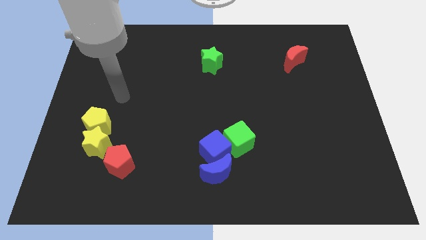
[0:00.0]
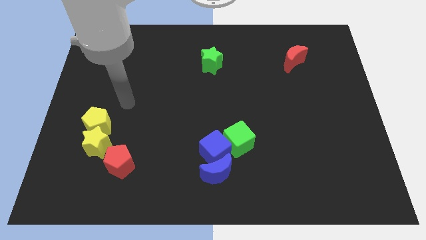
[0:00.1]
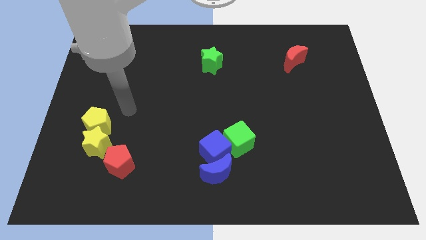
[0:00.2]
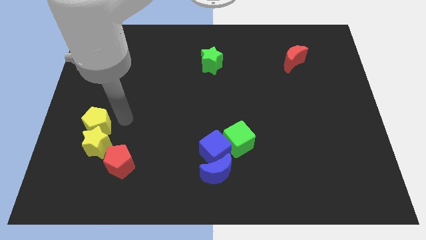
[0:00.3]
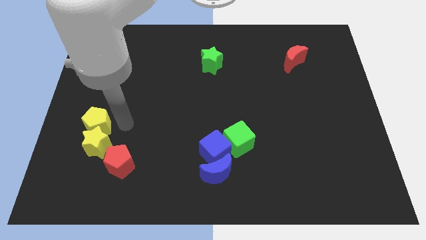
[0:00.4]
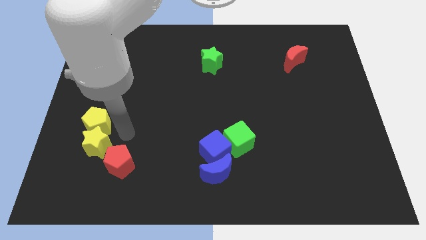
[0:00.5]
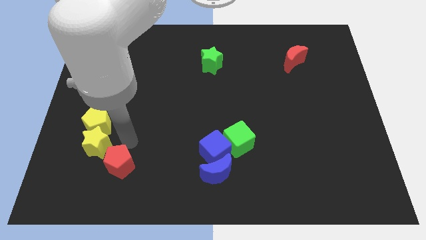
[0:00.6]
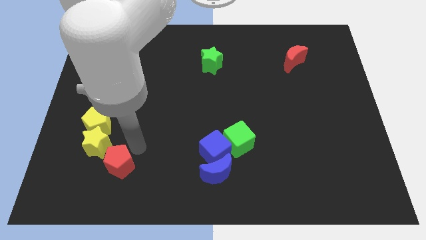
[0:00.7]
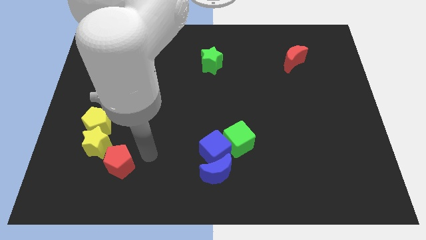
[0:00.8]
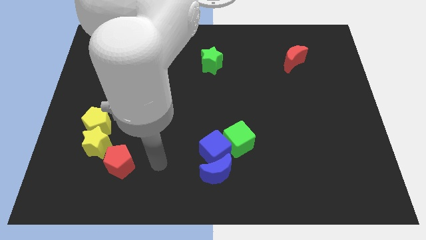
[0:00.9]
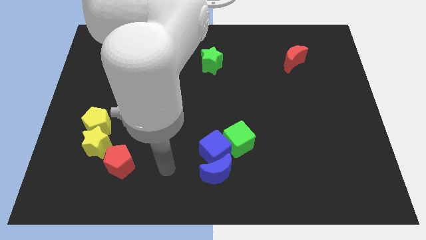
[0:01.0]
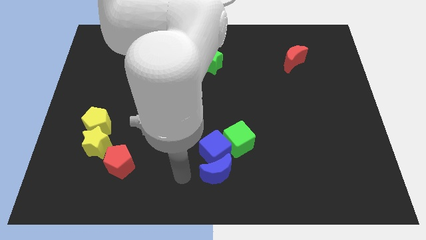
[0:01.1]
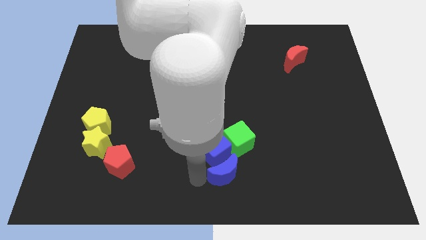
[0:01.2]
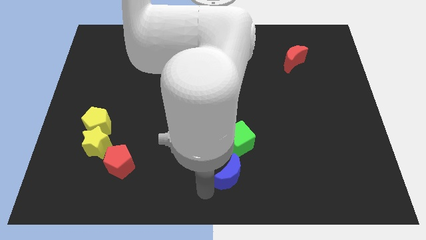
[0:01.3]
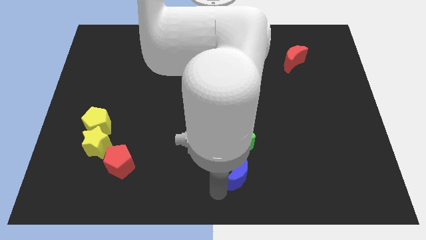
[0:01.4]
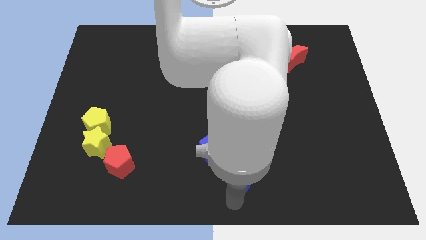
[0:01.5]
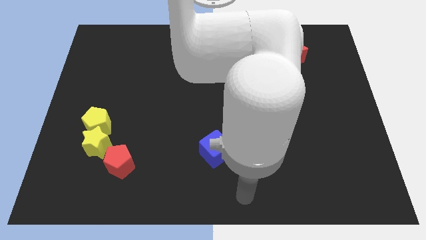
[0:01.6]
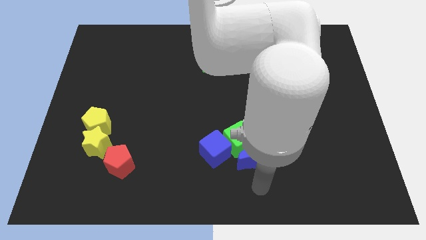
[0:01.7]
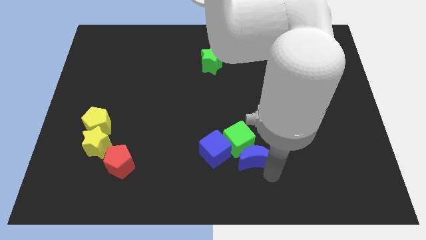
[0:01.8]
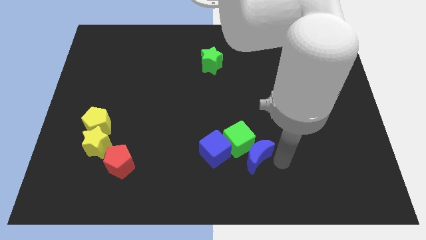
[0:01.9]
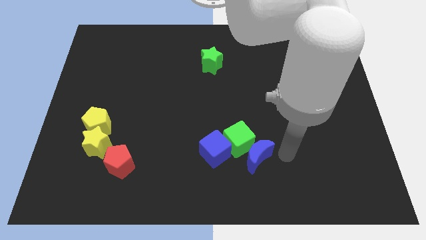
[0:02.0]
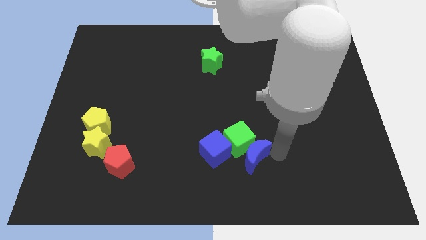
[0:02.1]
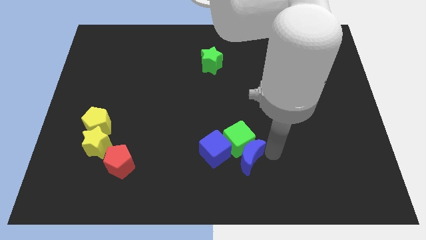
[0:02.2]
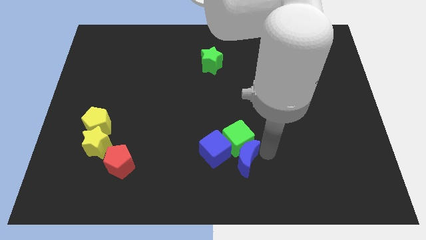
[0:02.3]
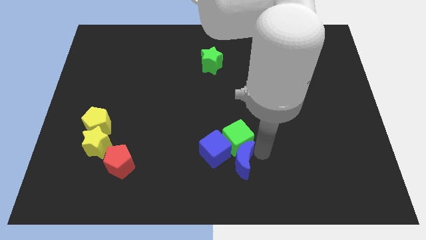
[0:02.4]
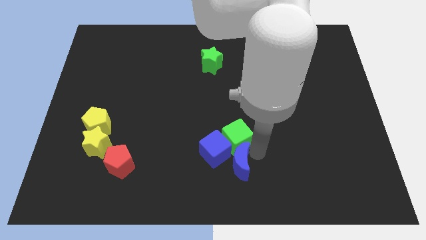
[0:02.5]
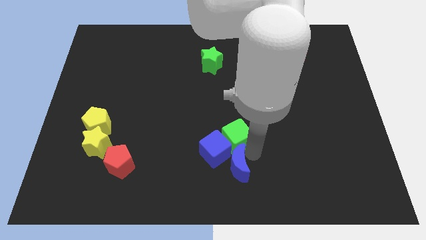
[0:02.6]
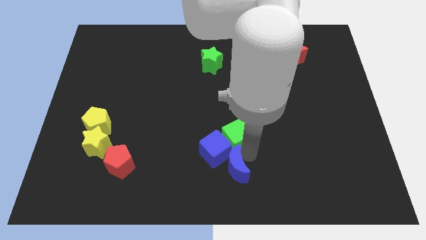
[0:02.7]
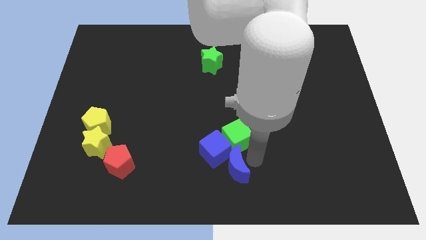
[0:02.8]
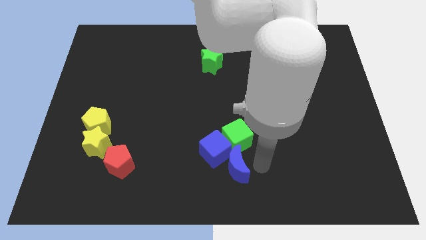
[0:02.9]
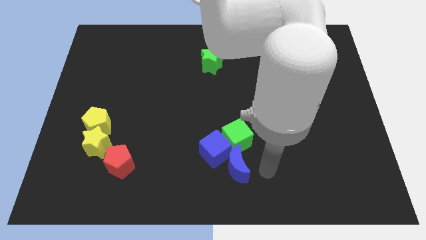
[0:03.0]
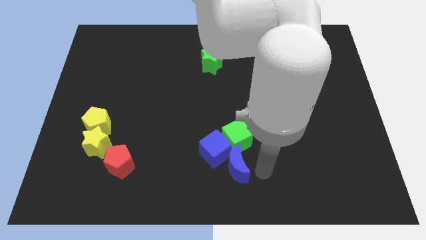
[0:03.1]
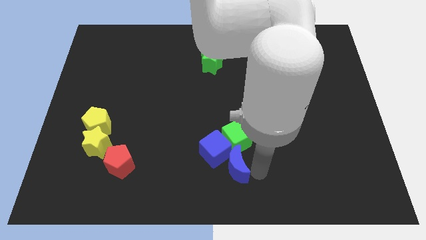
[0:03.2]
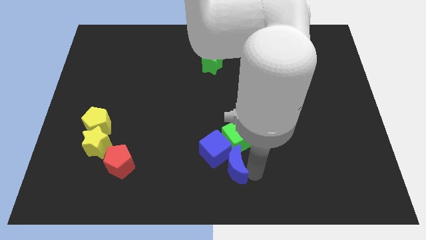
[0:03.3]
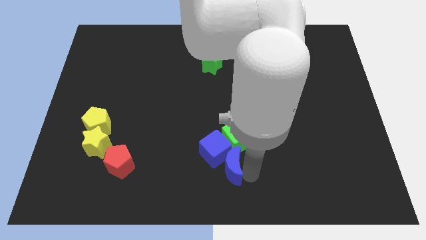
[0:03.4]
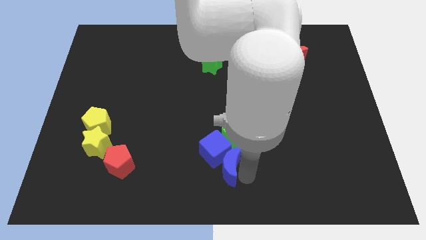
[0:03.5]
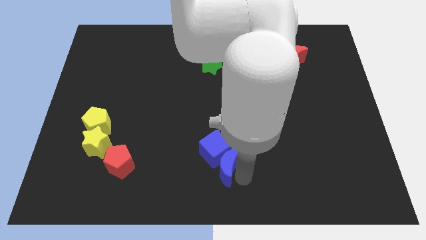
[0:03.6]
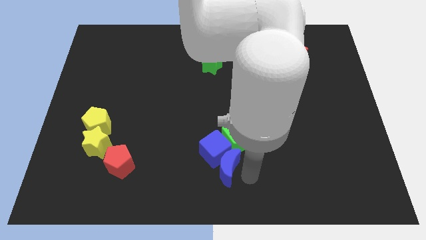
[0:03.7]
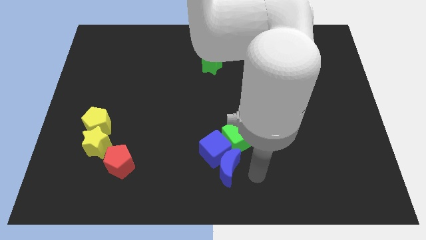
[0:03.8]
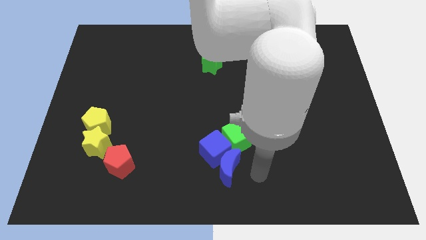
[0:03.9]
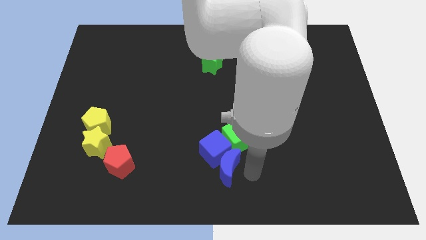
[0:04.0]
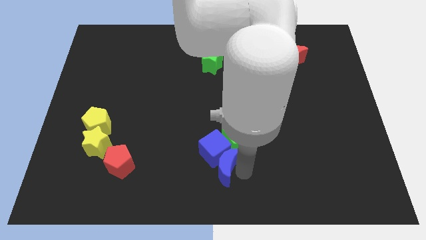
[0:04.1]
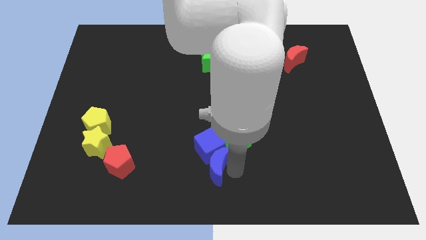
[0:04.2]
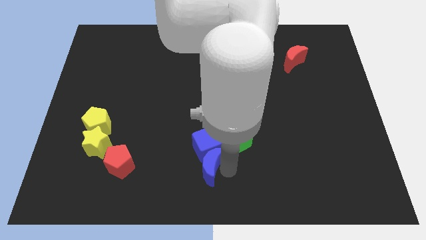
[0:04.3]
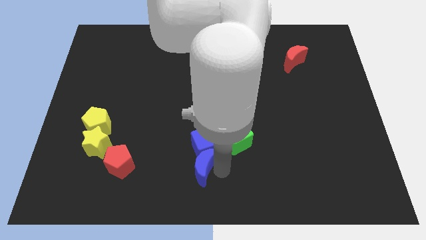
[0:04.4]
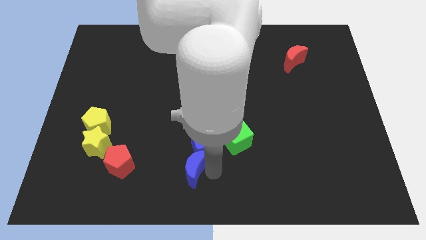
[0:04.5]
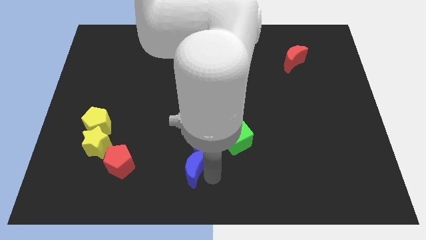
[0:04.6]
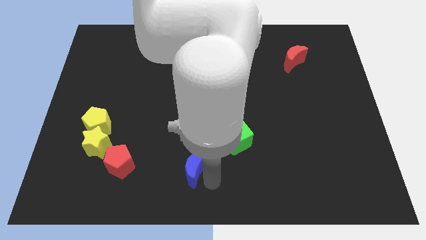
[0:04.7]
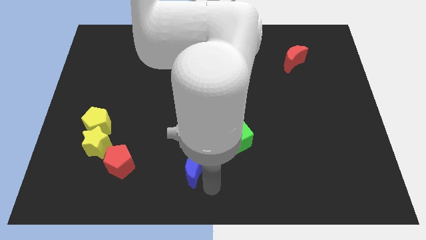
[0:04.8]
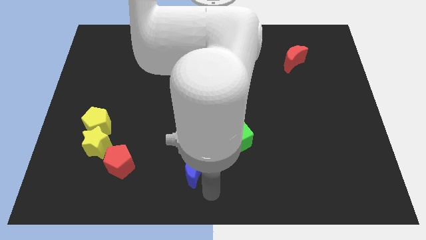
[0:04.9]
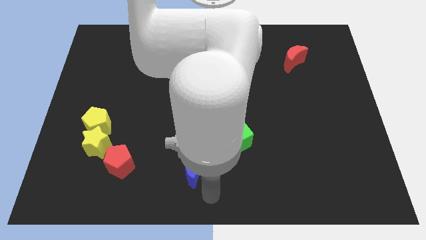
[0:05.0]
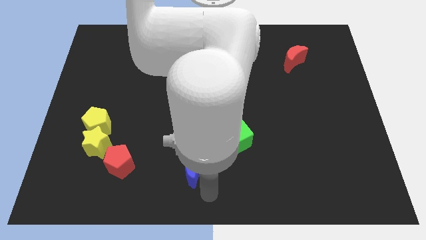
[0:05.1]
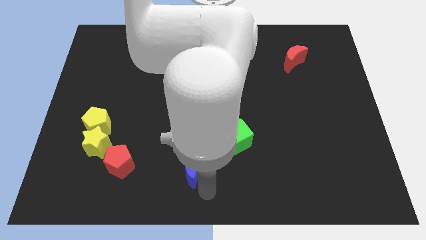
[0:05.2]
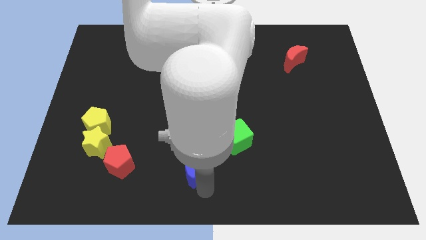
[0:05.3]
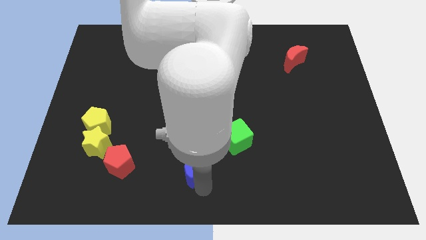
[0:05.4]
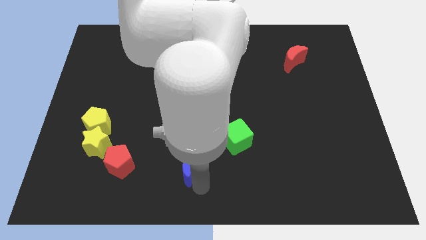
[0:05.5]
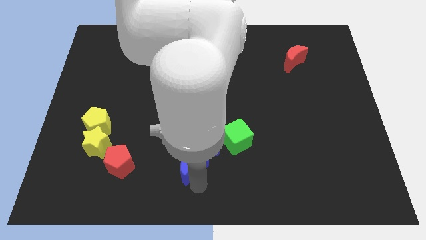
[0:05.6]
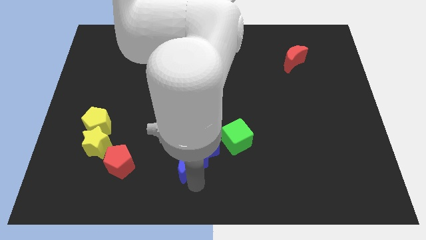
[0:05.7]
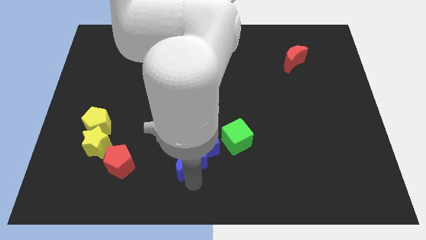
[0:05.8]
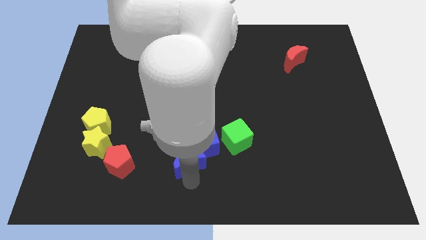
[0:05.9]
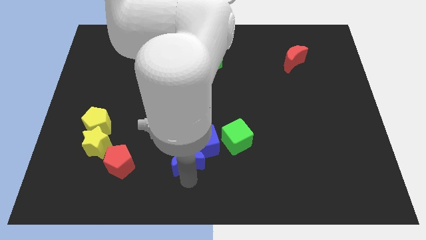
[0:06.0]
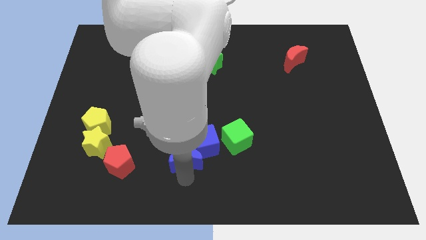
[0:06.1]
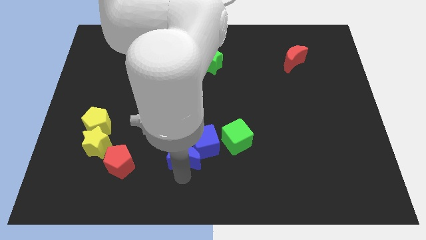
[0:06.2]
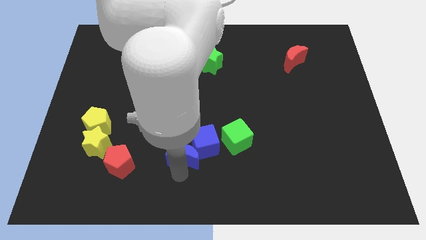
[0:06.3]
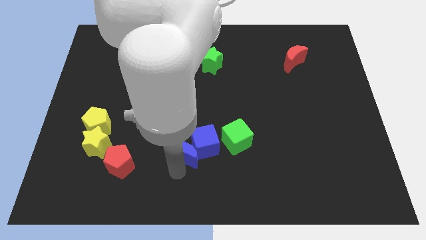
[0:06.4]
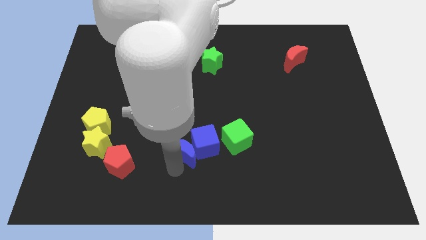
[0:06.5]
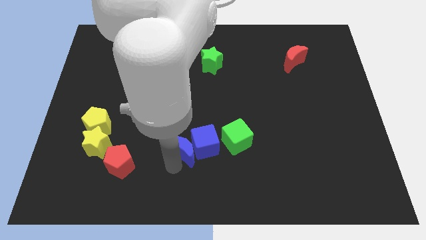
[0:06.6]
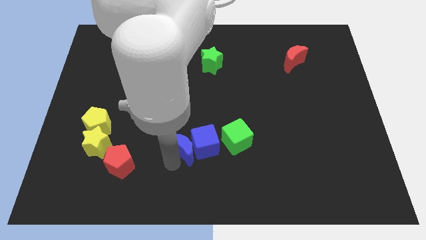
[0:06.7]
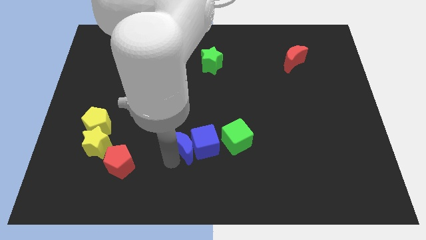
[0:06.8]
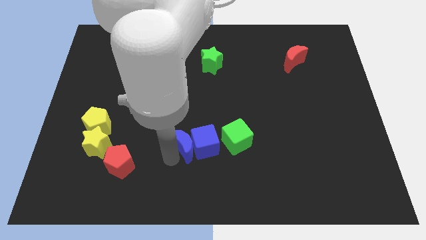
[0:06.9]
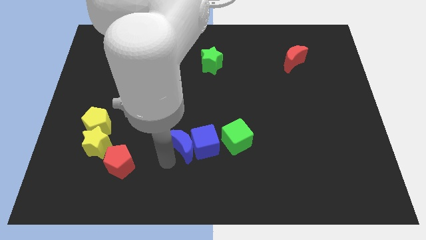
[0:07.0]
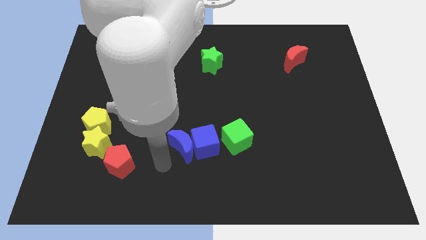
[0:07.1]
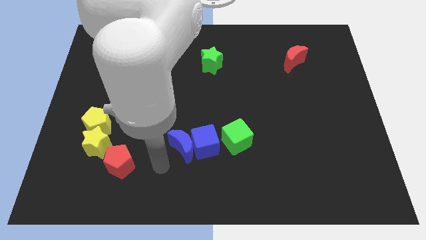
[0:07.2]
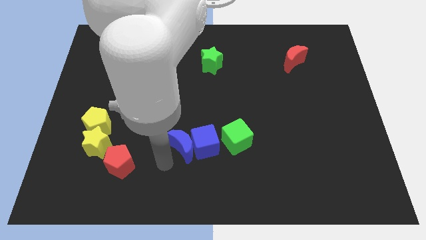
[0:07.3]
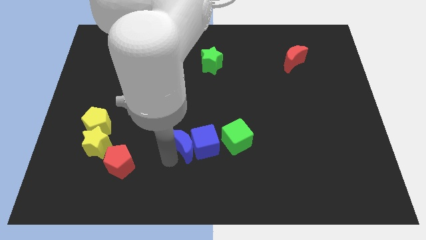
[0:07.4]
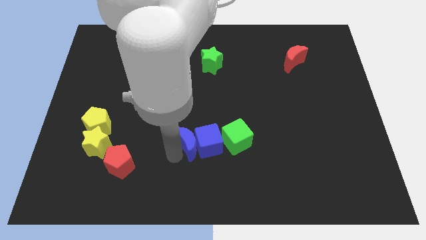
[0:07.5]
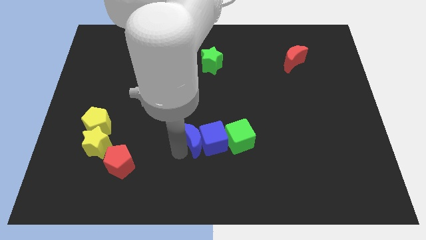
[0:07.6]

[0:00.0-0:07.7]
slightly slide the blue moon upwards

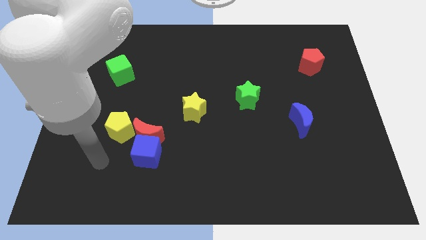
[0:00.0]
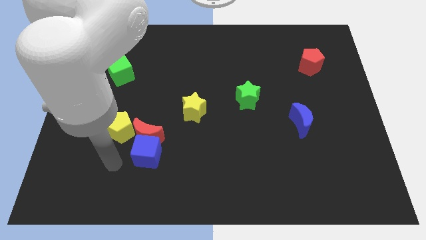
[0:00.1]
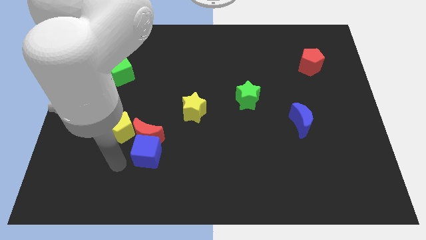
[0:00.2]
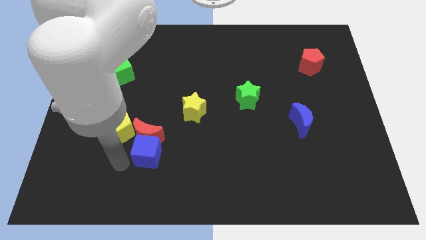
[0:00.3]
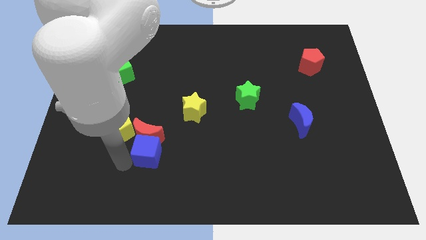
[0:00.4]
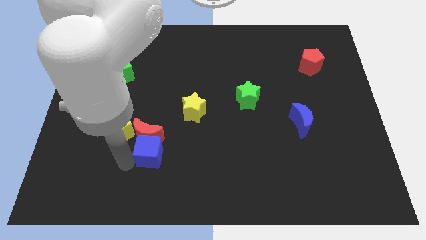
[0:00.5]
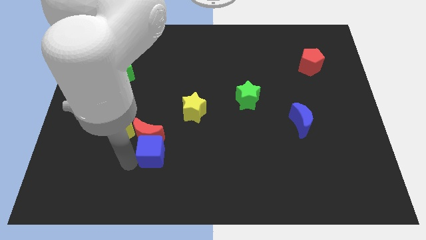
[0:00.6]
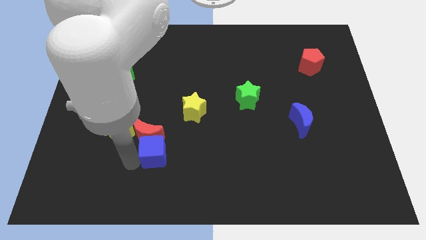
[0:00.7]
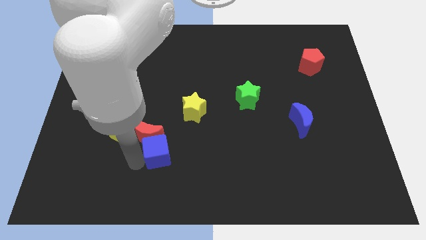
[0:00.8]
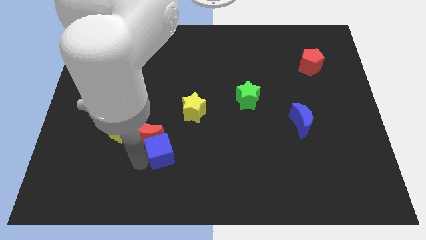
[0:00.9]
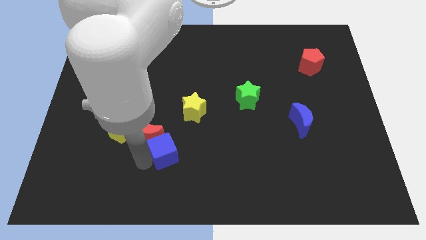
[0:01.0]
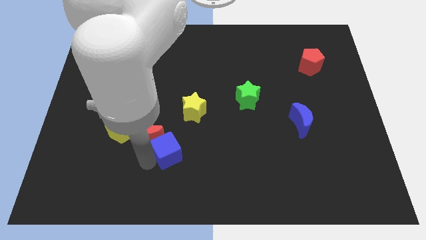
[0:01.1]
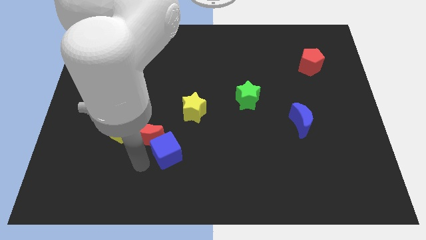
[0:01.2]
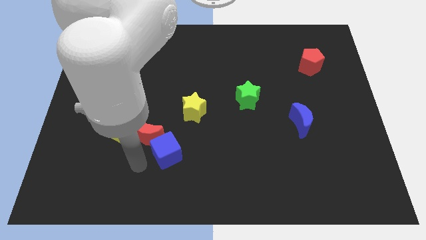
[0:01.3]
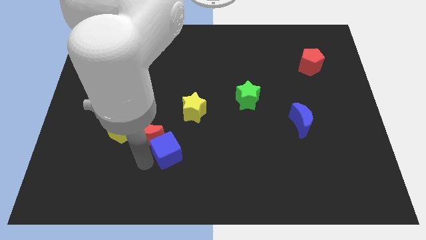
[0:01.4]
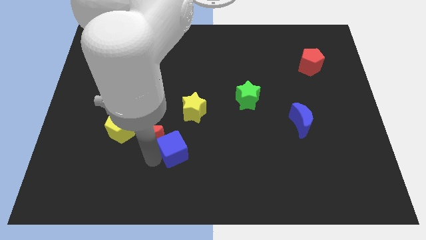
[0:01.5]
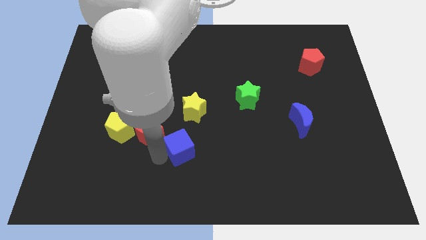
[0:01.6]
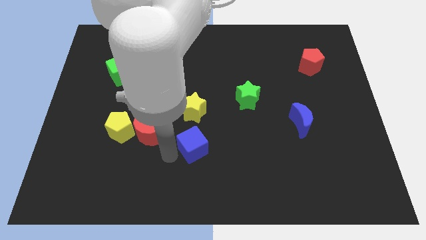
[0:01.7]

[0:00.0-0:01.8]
push the blue cube a little upwards and then right
